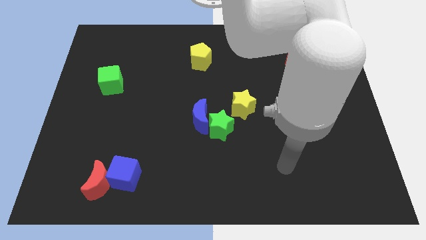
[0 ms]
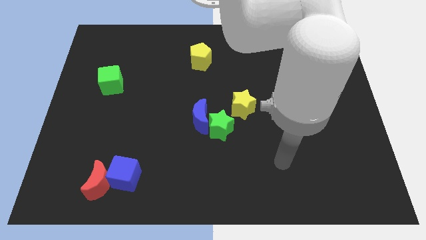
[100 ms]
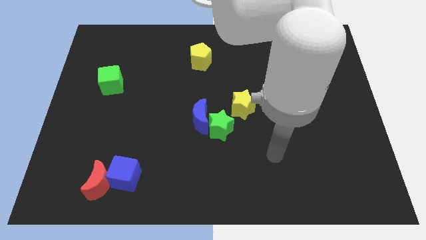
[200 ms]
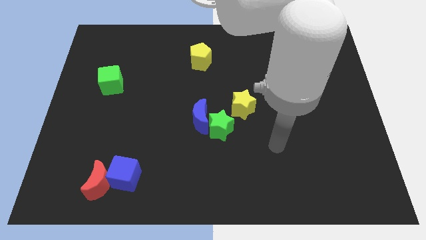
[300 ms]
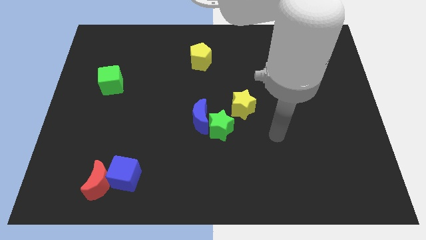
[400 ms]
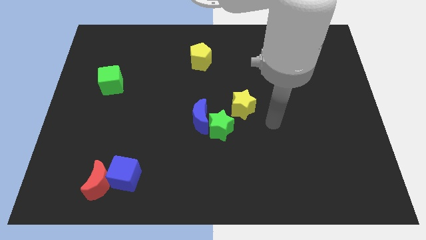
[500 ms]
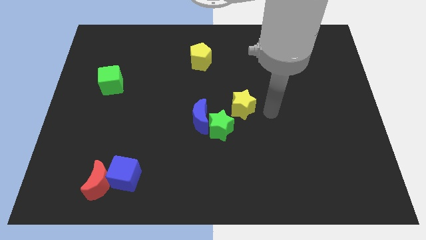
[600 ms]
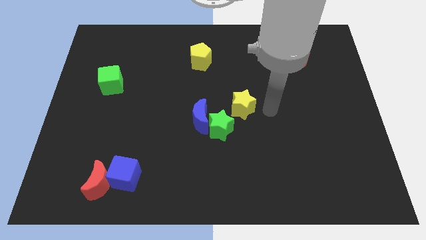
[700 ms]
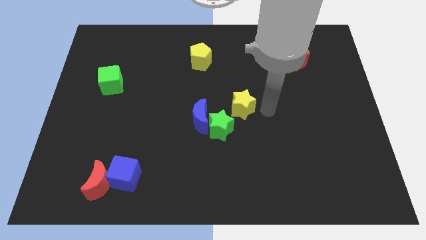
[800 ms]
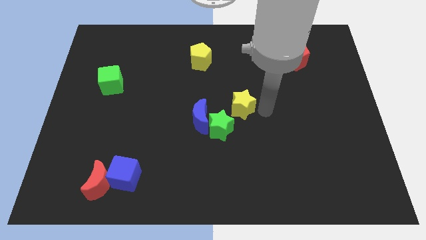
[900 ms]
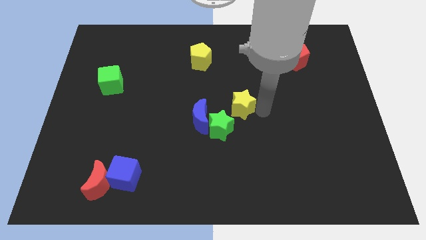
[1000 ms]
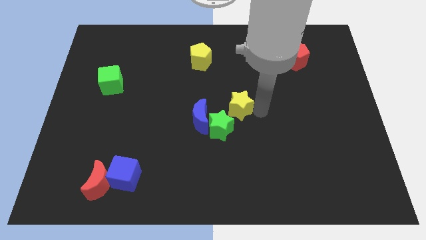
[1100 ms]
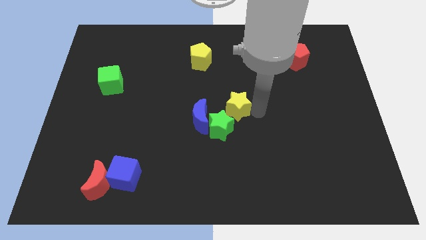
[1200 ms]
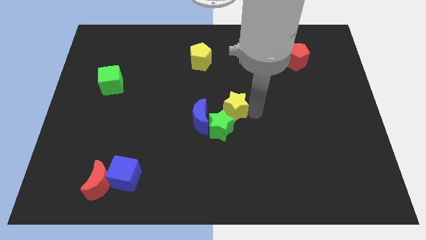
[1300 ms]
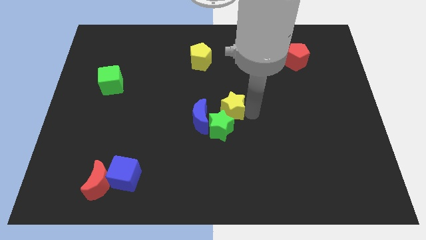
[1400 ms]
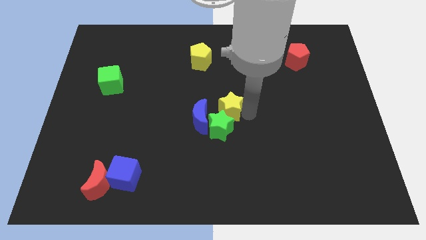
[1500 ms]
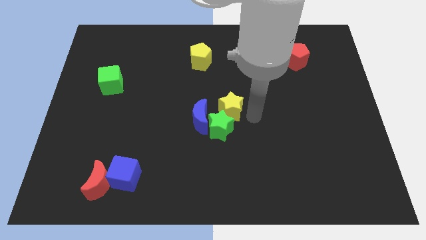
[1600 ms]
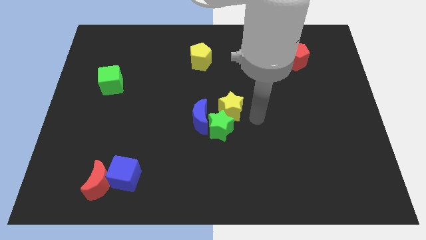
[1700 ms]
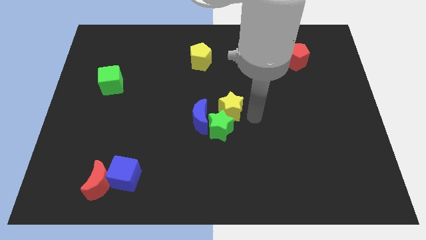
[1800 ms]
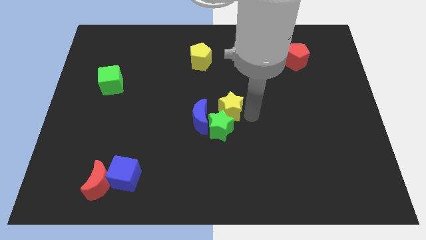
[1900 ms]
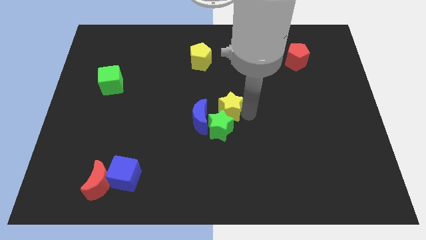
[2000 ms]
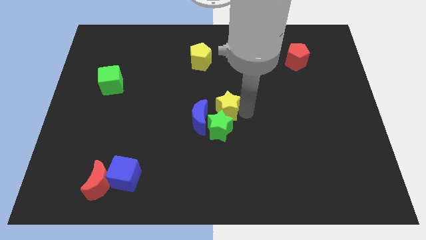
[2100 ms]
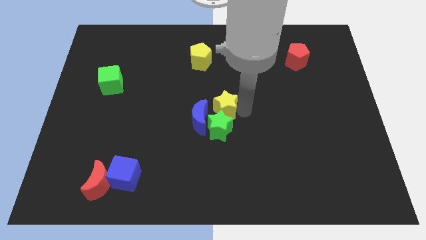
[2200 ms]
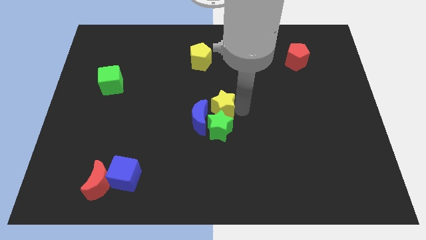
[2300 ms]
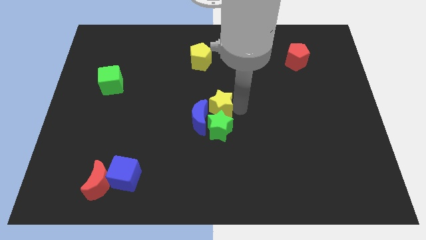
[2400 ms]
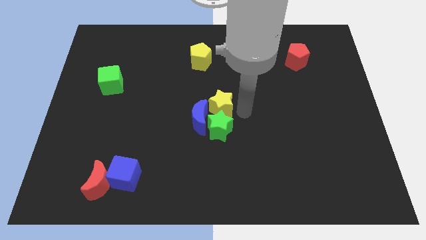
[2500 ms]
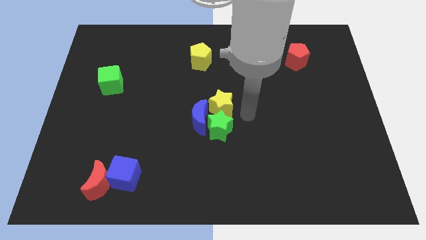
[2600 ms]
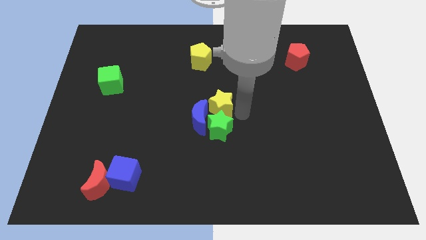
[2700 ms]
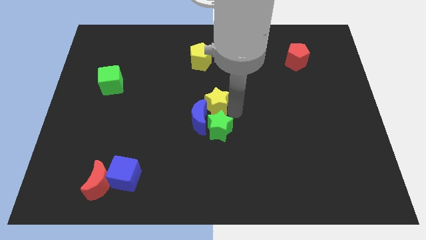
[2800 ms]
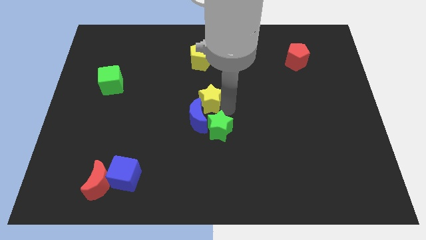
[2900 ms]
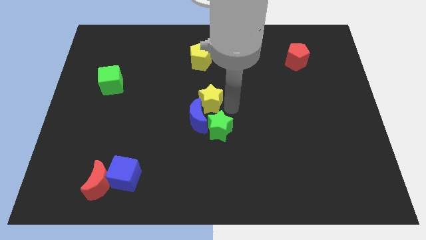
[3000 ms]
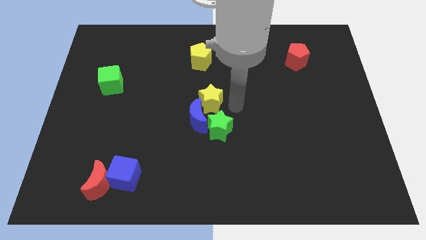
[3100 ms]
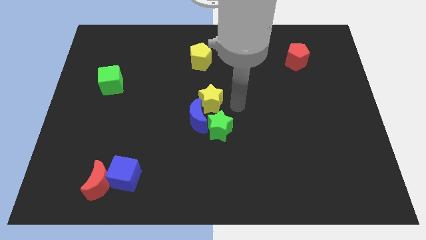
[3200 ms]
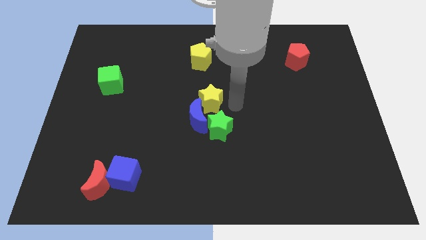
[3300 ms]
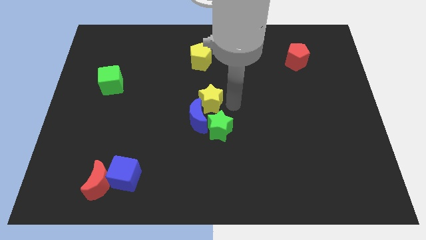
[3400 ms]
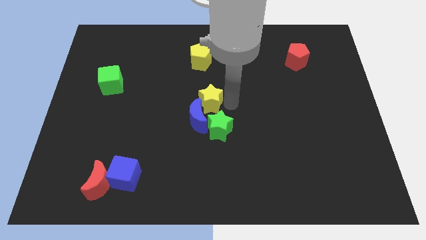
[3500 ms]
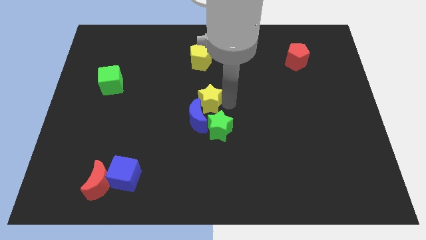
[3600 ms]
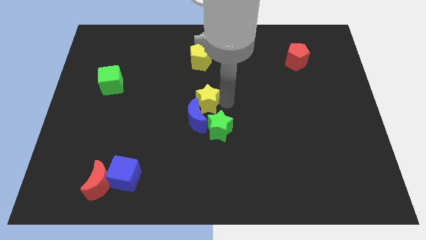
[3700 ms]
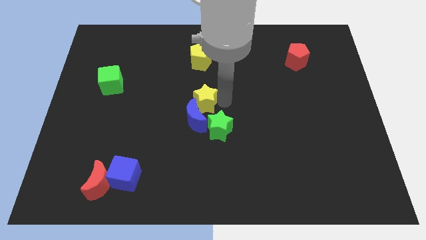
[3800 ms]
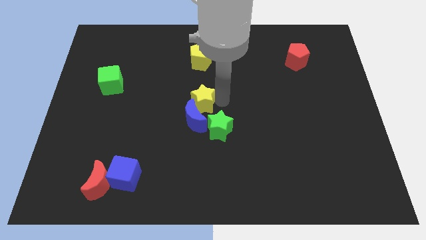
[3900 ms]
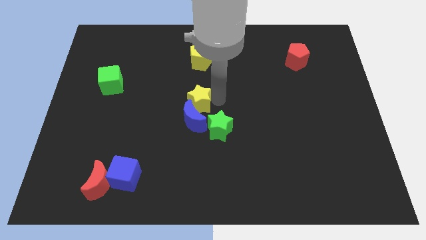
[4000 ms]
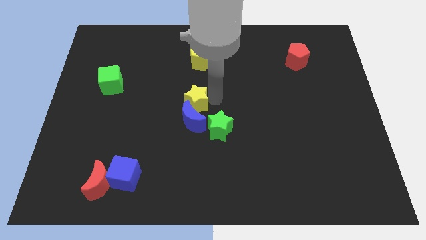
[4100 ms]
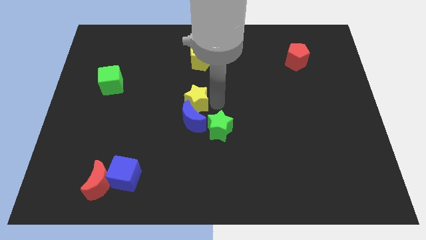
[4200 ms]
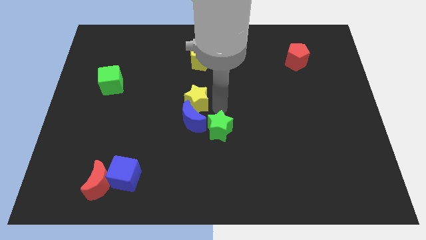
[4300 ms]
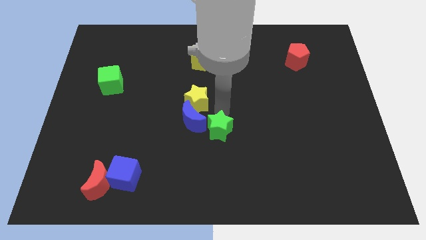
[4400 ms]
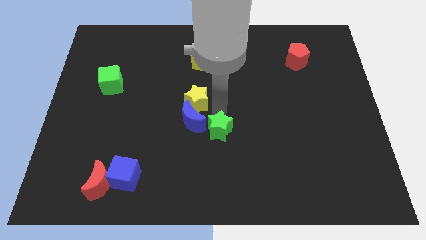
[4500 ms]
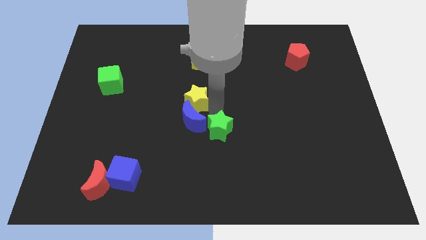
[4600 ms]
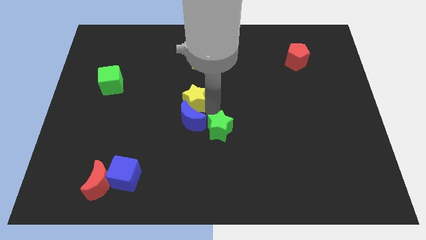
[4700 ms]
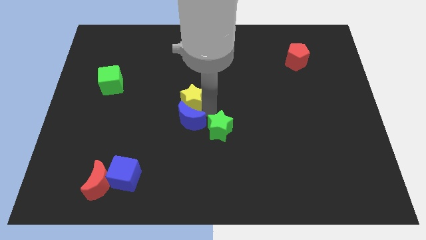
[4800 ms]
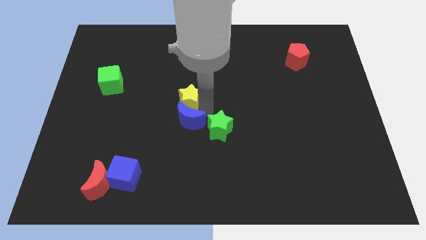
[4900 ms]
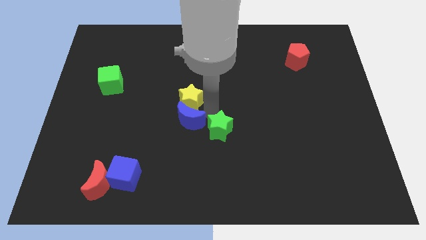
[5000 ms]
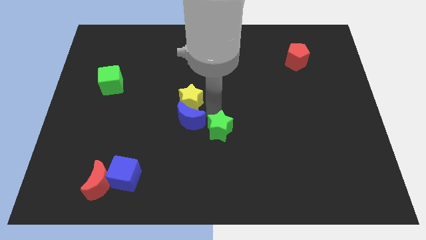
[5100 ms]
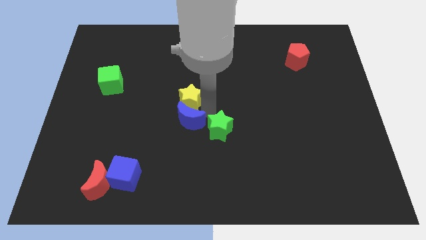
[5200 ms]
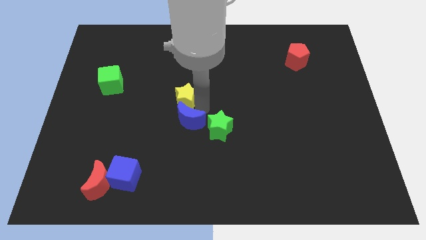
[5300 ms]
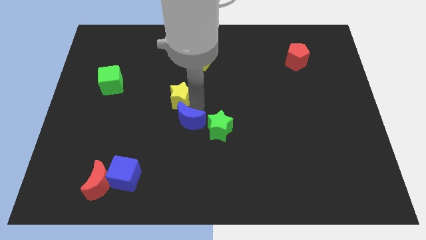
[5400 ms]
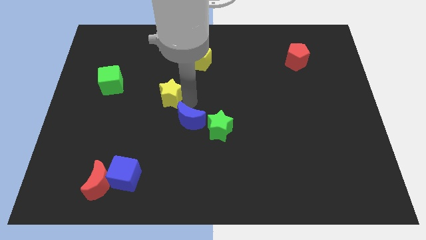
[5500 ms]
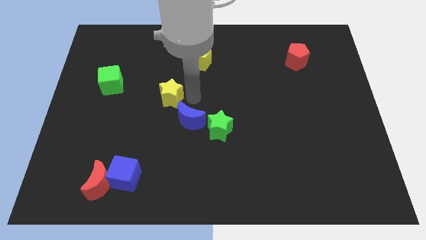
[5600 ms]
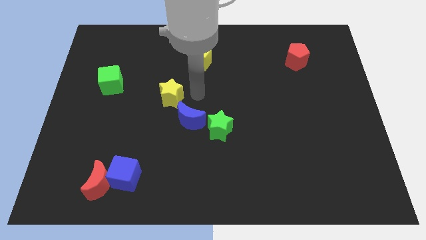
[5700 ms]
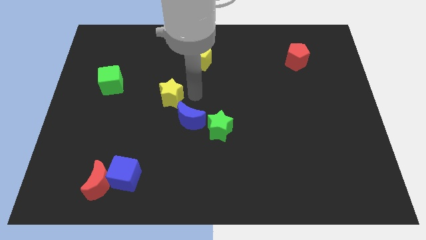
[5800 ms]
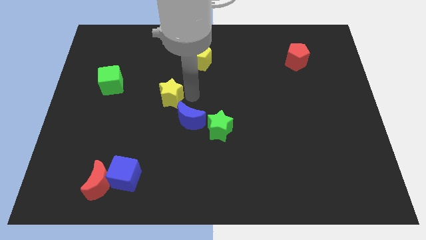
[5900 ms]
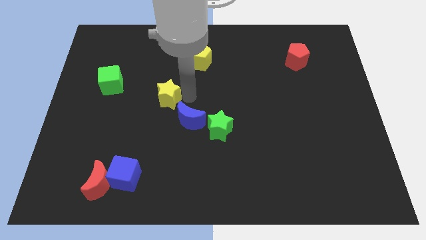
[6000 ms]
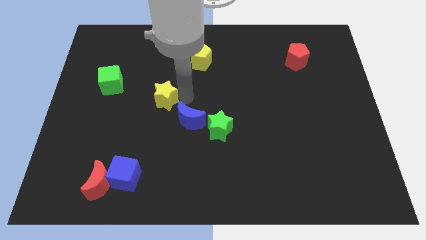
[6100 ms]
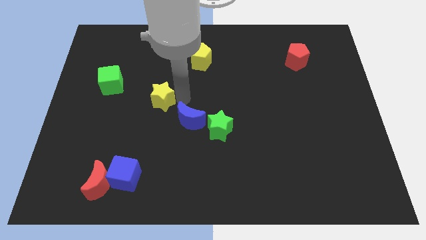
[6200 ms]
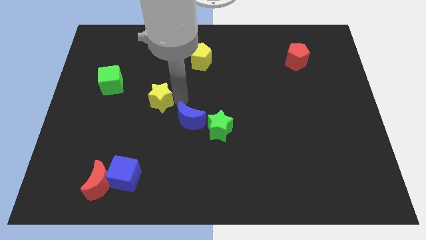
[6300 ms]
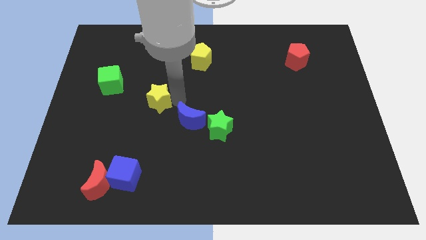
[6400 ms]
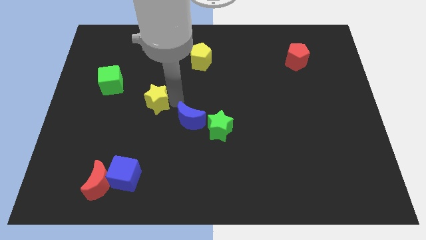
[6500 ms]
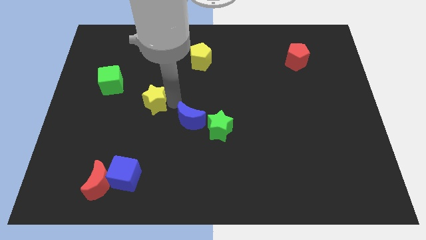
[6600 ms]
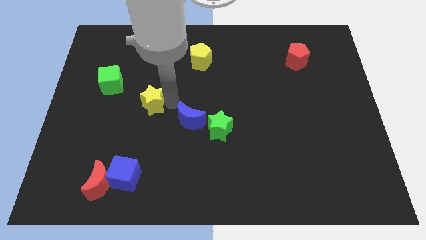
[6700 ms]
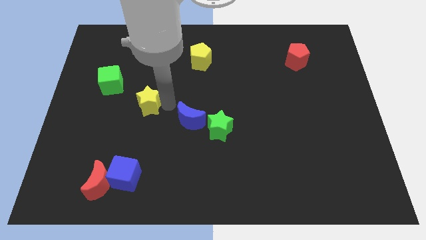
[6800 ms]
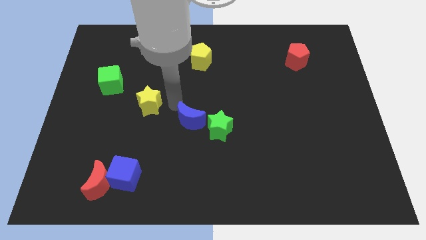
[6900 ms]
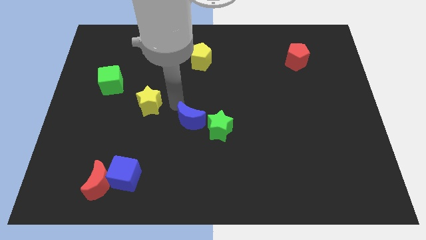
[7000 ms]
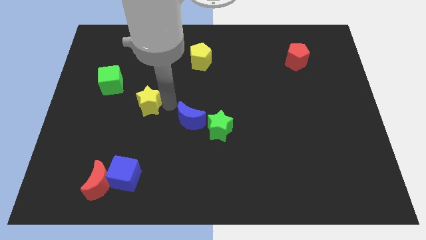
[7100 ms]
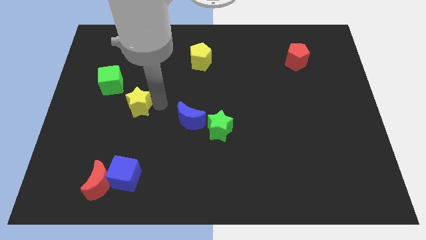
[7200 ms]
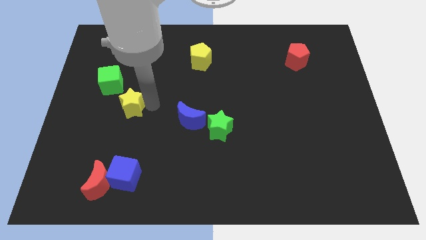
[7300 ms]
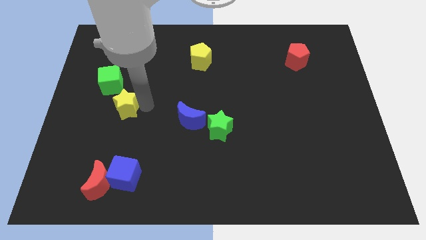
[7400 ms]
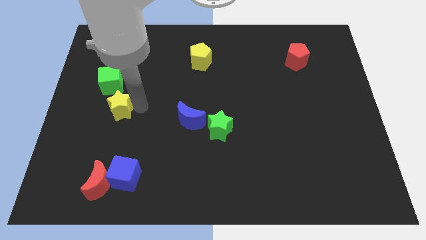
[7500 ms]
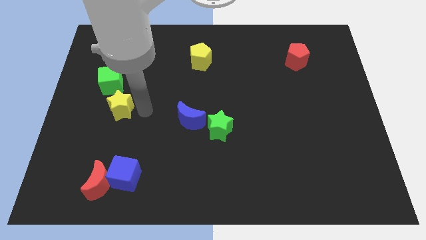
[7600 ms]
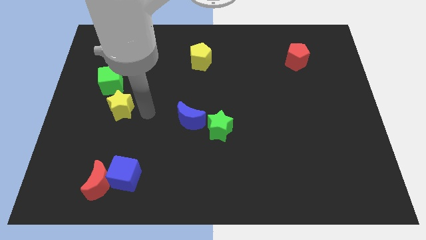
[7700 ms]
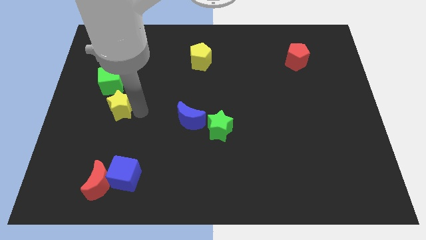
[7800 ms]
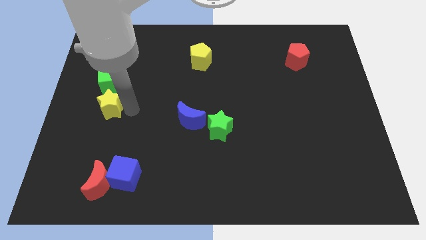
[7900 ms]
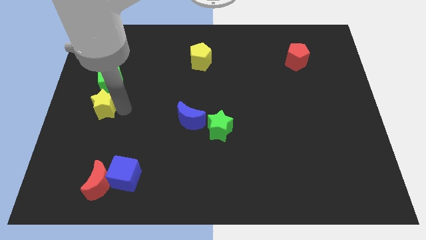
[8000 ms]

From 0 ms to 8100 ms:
slide the yellow star to the center left
